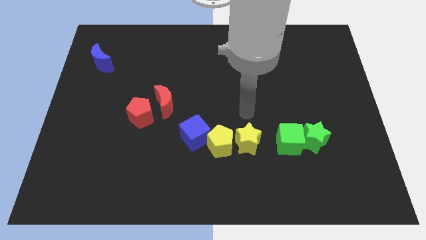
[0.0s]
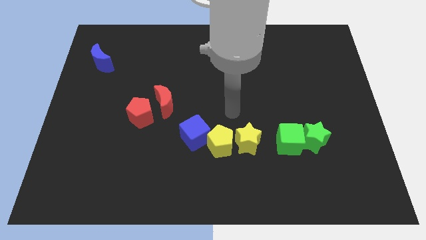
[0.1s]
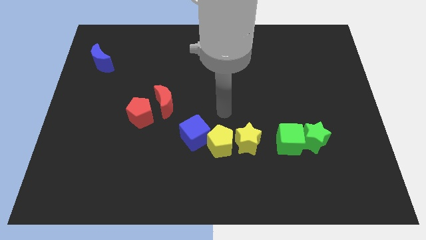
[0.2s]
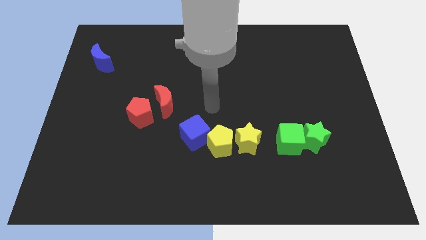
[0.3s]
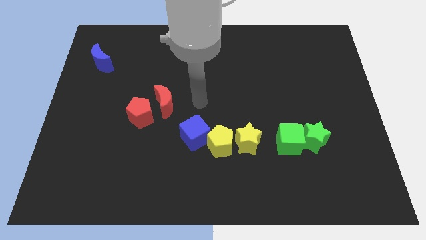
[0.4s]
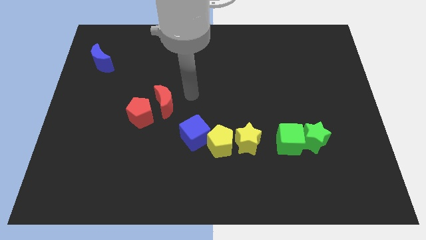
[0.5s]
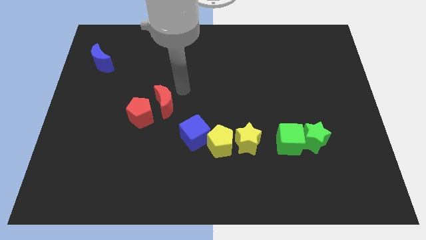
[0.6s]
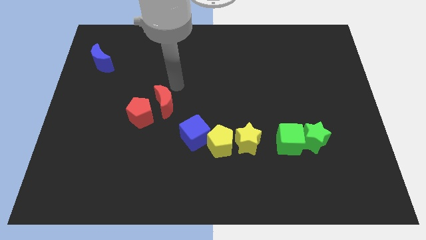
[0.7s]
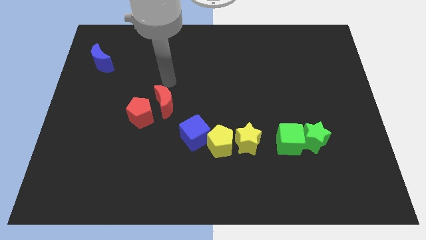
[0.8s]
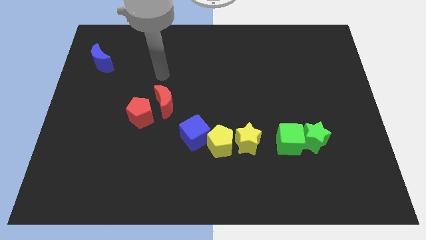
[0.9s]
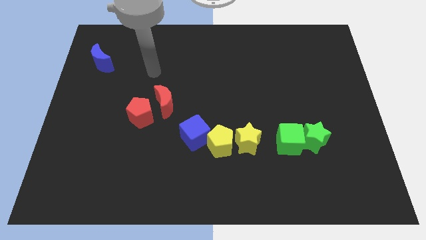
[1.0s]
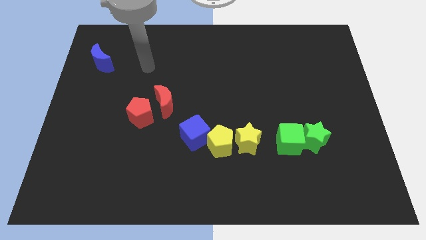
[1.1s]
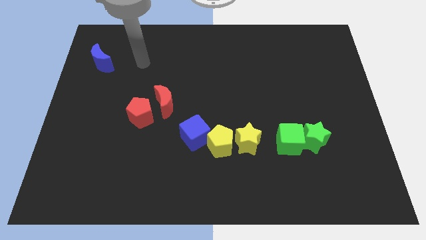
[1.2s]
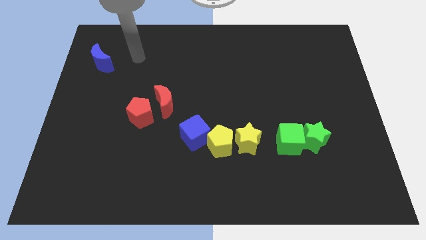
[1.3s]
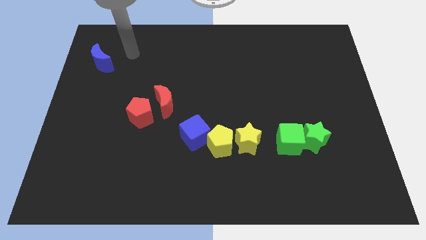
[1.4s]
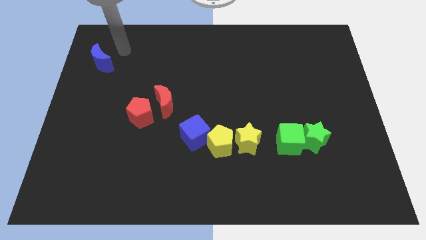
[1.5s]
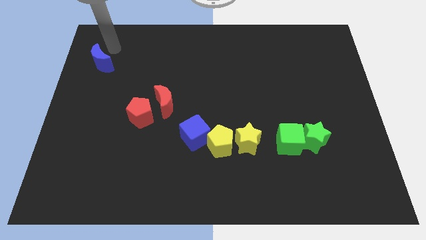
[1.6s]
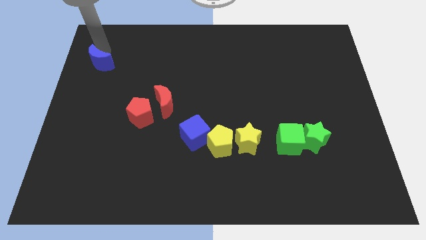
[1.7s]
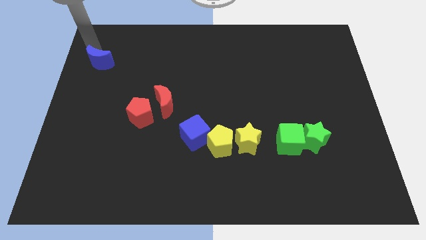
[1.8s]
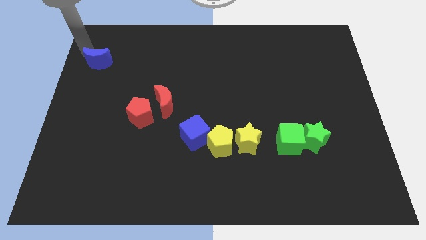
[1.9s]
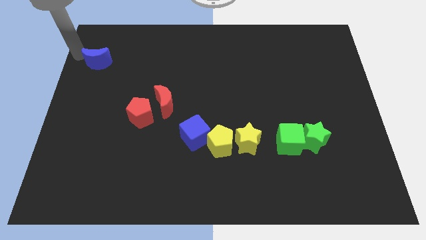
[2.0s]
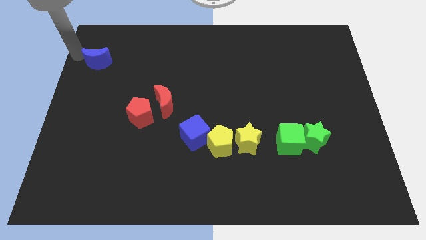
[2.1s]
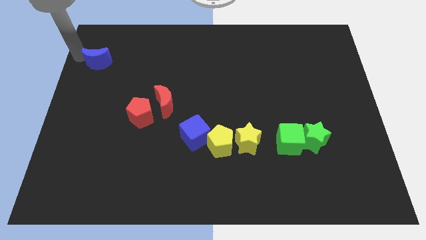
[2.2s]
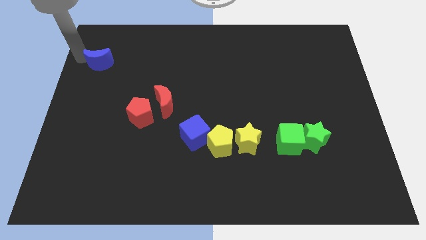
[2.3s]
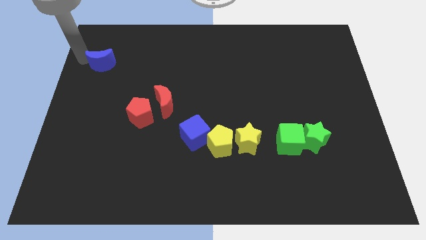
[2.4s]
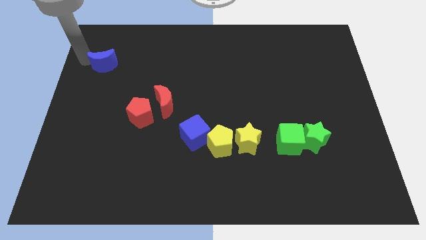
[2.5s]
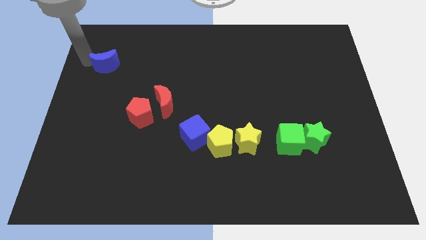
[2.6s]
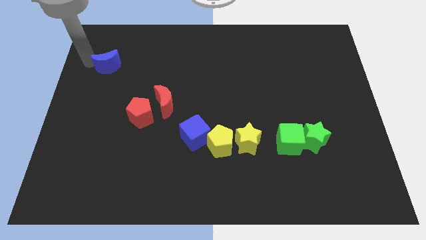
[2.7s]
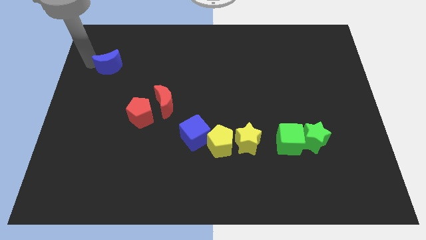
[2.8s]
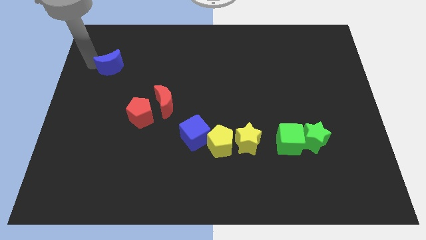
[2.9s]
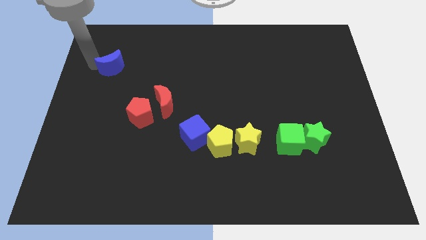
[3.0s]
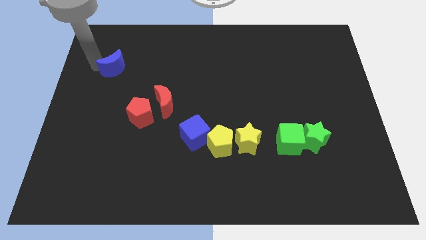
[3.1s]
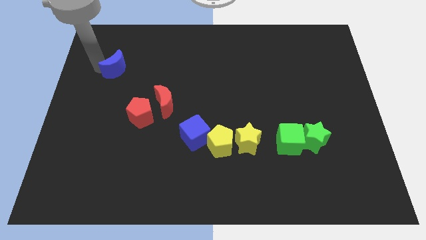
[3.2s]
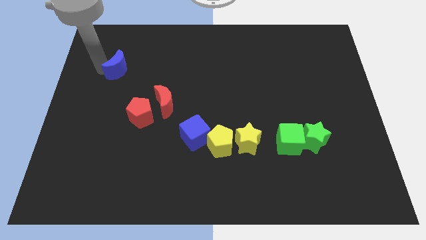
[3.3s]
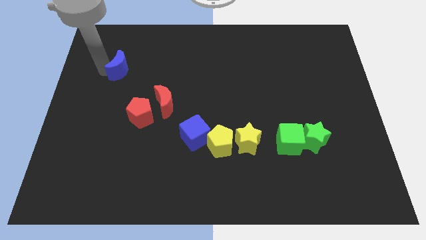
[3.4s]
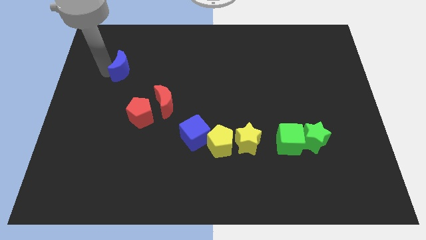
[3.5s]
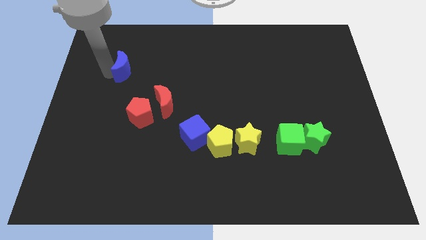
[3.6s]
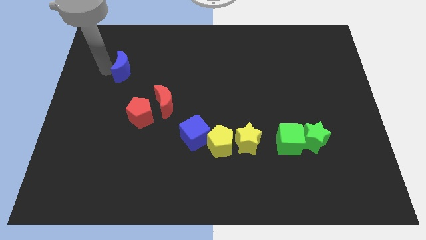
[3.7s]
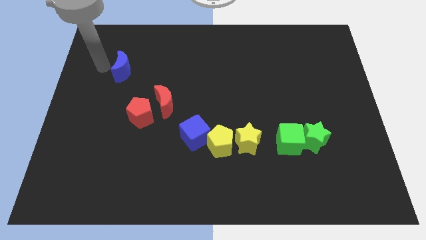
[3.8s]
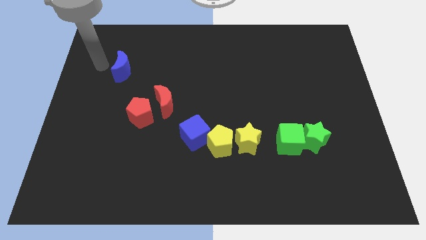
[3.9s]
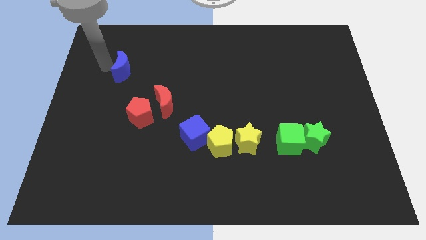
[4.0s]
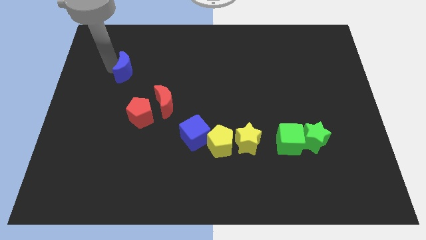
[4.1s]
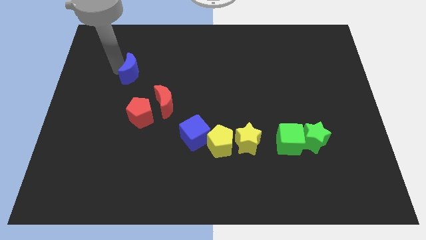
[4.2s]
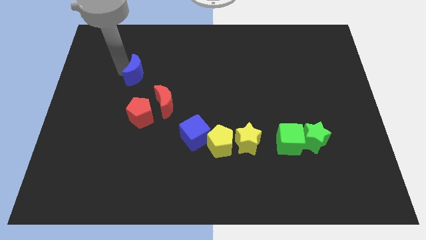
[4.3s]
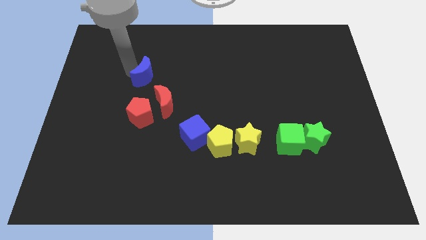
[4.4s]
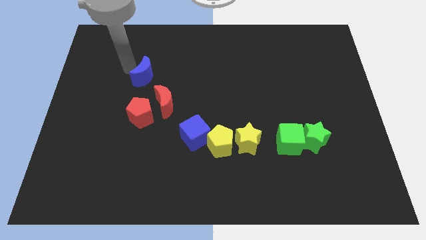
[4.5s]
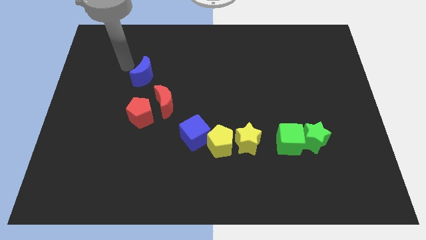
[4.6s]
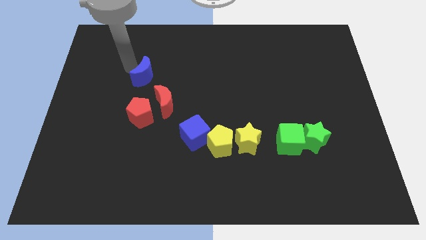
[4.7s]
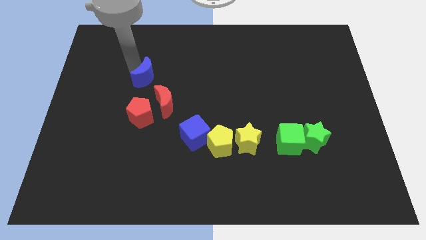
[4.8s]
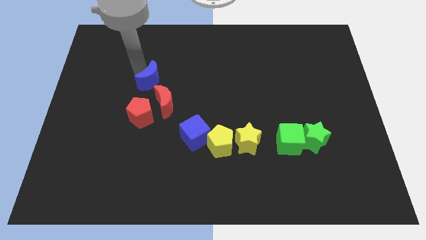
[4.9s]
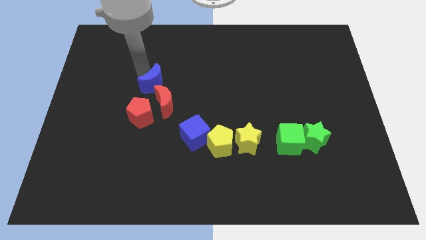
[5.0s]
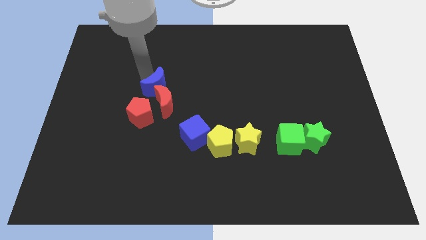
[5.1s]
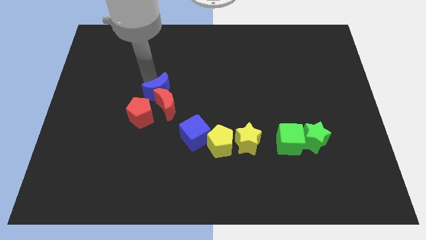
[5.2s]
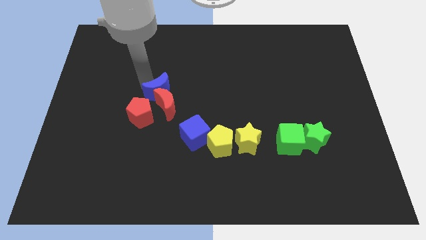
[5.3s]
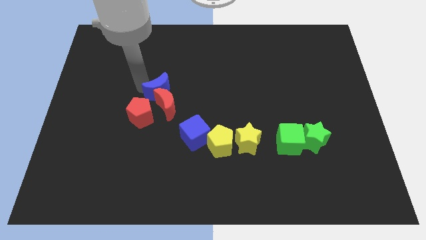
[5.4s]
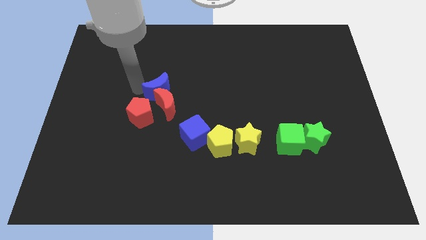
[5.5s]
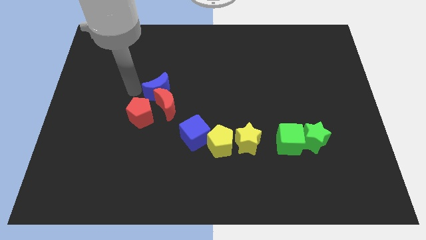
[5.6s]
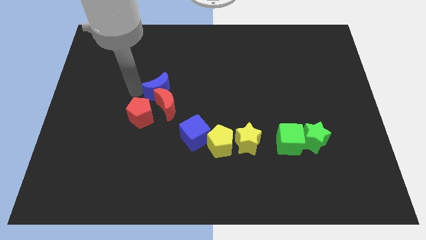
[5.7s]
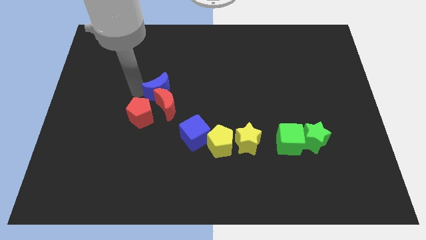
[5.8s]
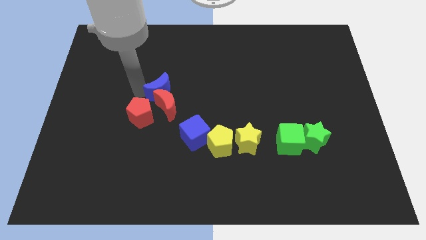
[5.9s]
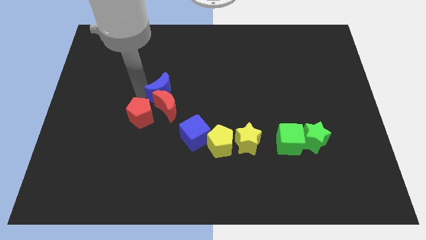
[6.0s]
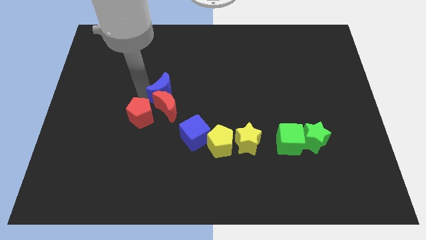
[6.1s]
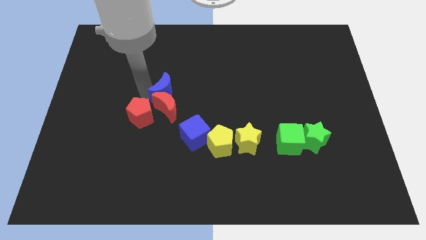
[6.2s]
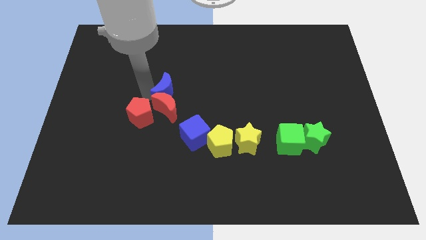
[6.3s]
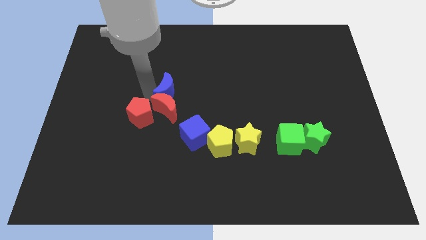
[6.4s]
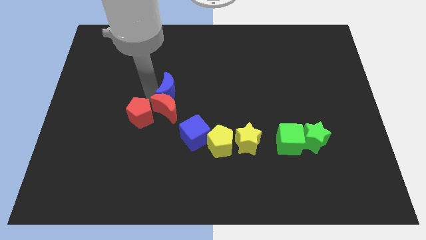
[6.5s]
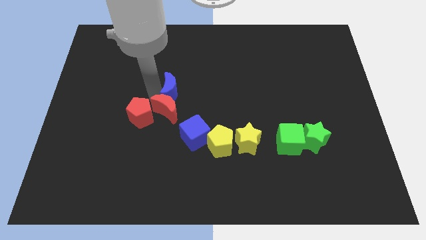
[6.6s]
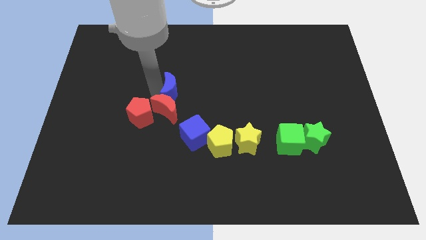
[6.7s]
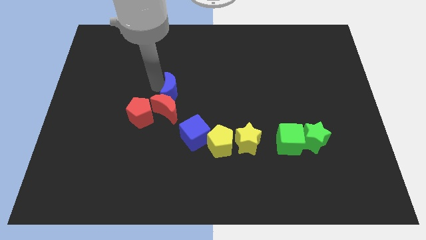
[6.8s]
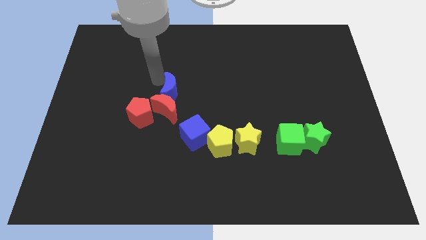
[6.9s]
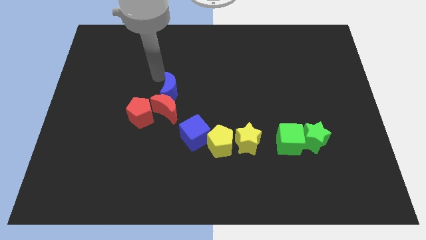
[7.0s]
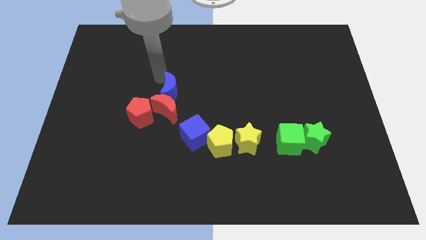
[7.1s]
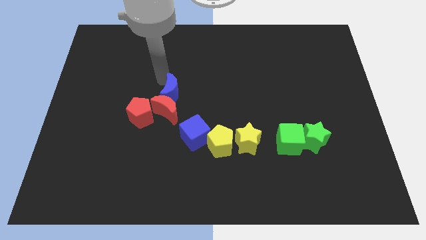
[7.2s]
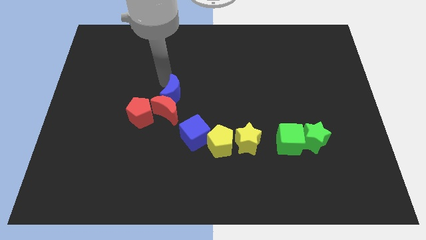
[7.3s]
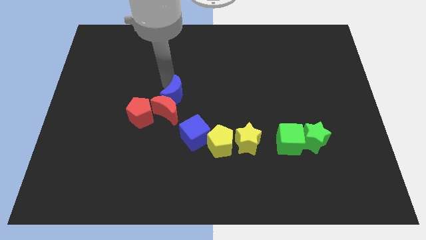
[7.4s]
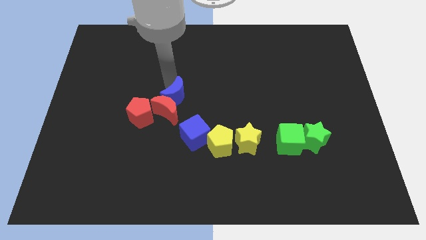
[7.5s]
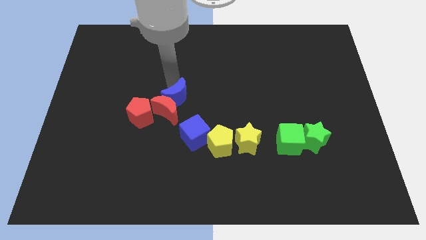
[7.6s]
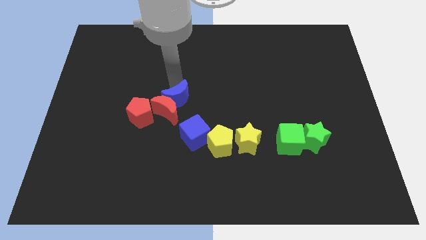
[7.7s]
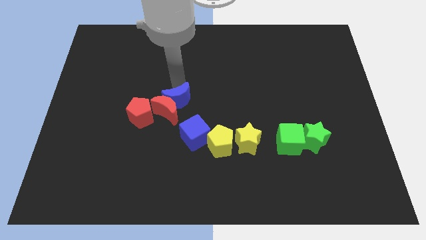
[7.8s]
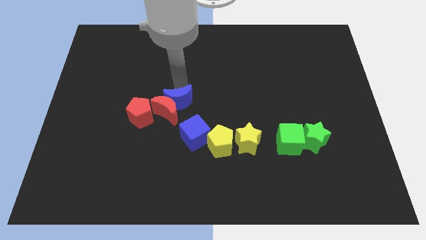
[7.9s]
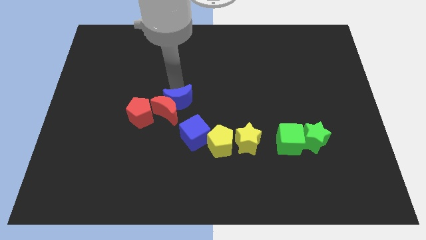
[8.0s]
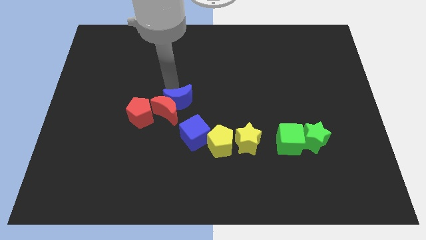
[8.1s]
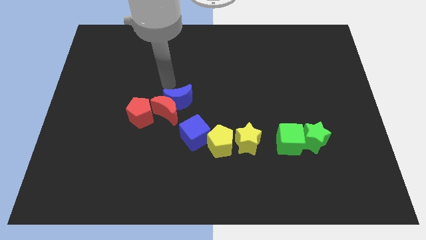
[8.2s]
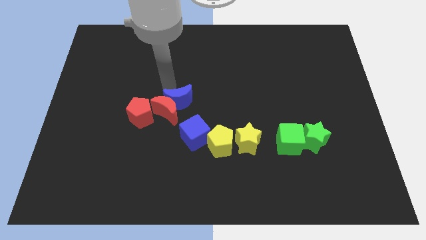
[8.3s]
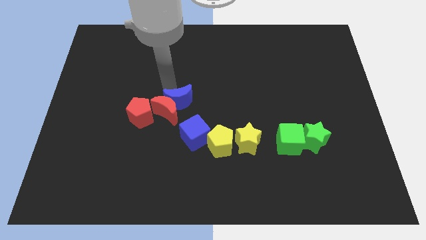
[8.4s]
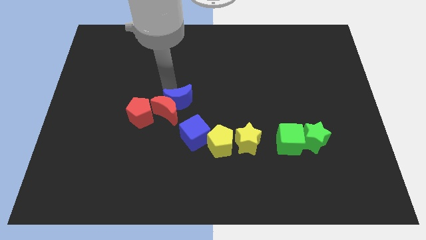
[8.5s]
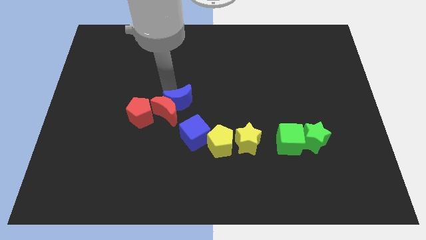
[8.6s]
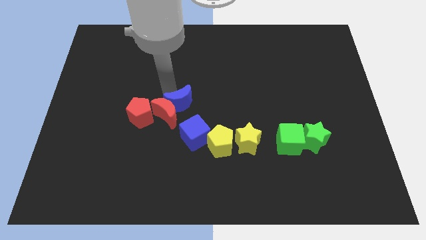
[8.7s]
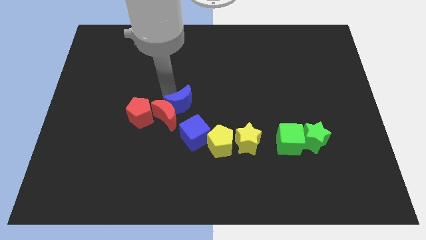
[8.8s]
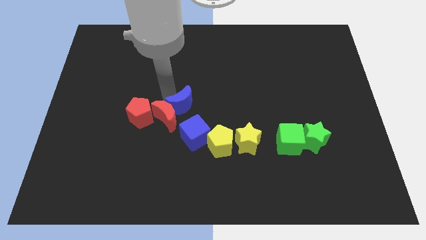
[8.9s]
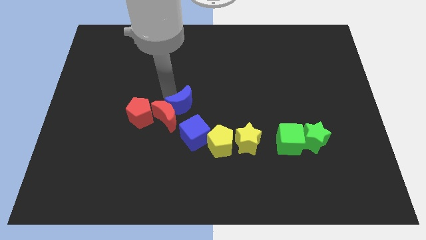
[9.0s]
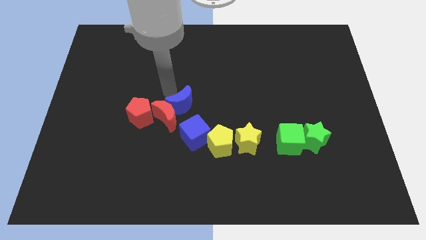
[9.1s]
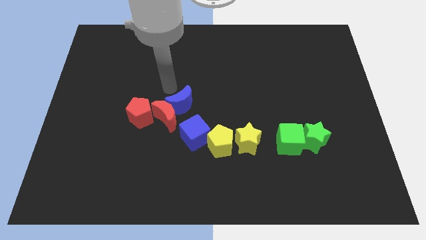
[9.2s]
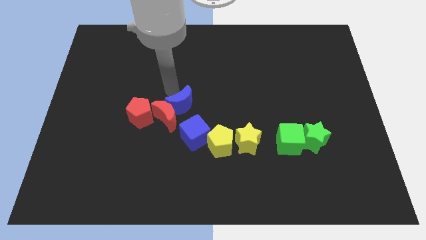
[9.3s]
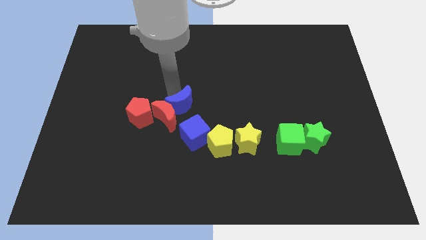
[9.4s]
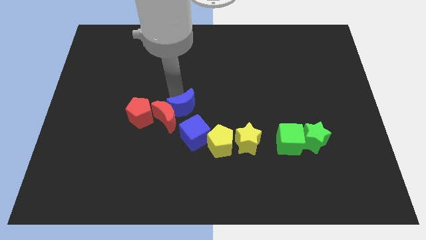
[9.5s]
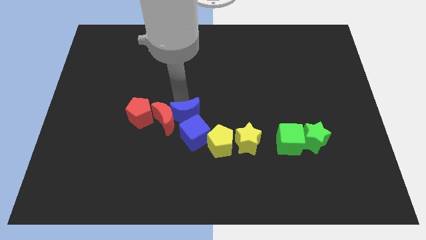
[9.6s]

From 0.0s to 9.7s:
put the blue moon towards the blue cube
